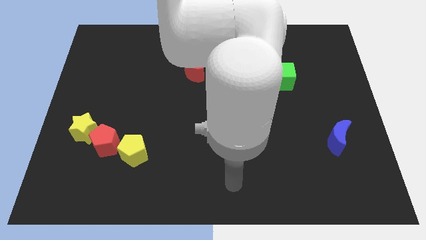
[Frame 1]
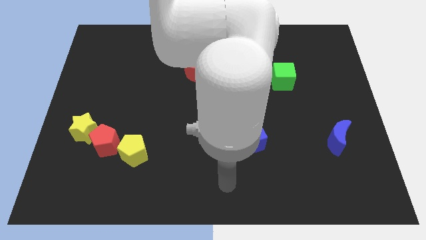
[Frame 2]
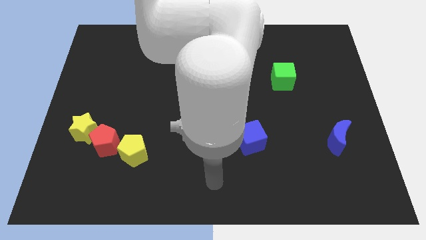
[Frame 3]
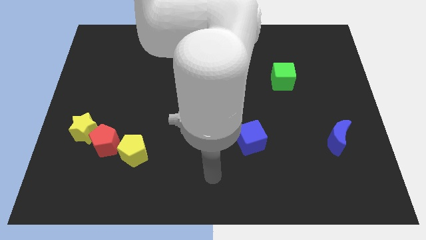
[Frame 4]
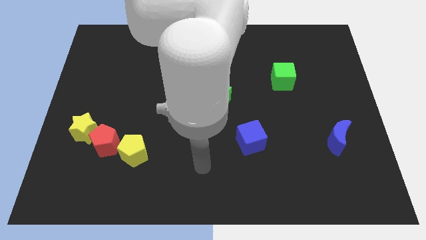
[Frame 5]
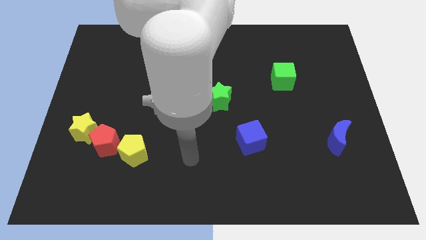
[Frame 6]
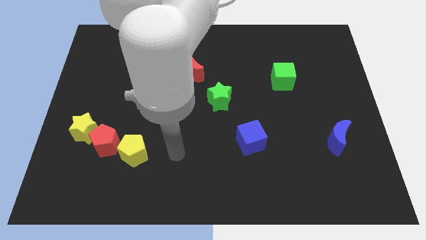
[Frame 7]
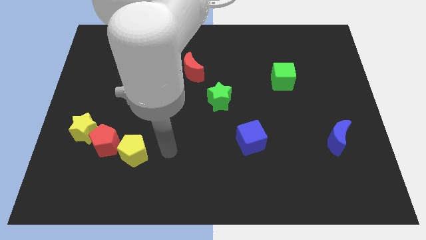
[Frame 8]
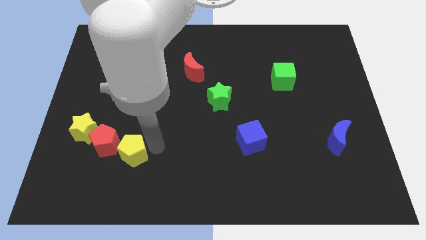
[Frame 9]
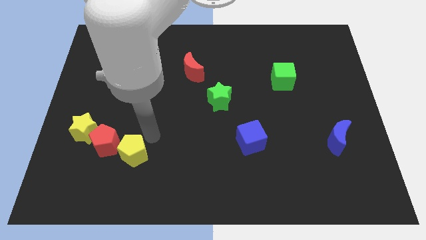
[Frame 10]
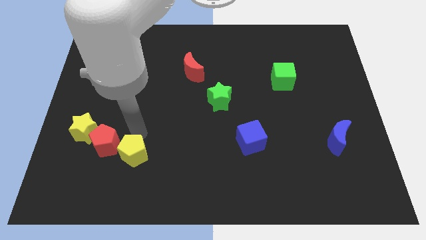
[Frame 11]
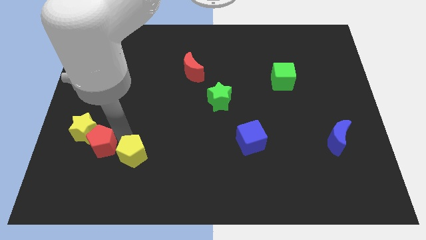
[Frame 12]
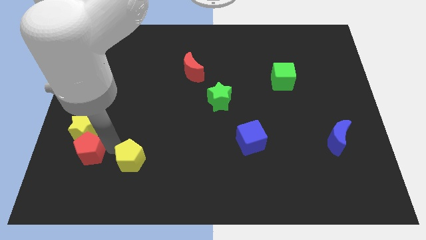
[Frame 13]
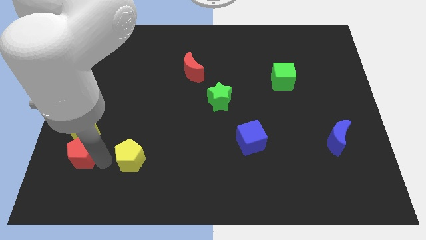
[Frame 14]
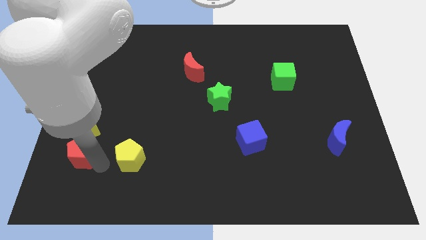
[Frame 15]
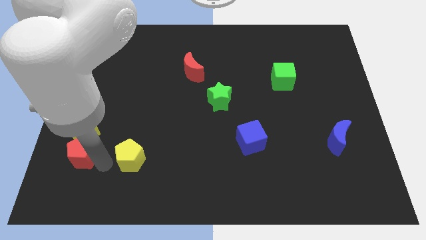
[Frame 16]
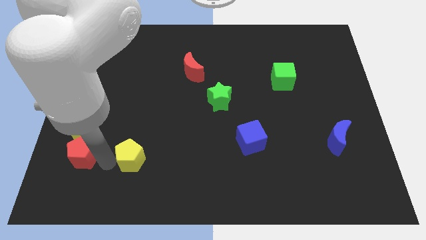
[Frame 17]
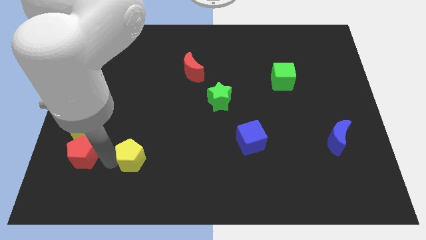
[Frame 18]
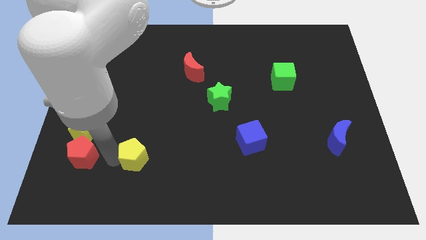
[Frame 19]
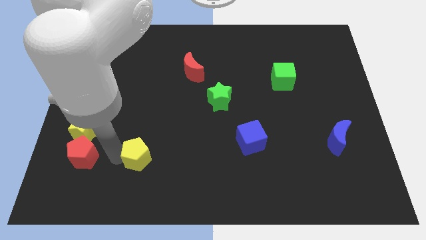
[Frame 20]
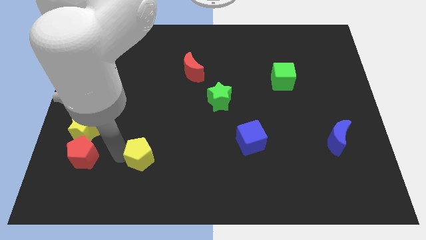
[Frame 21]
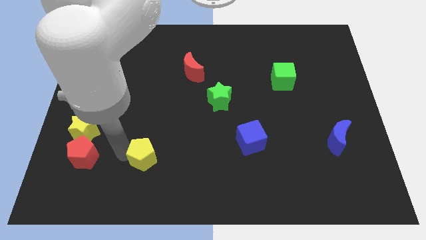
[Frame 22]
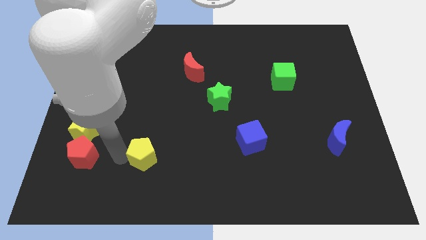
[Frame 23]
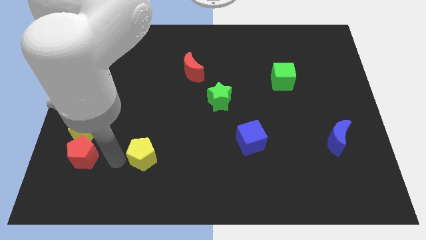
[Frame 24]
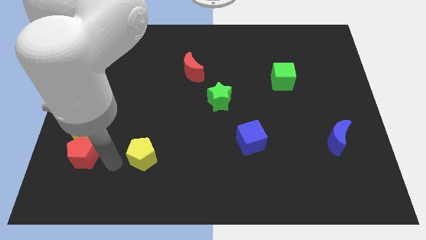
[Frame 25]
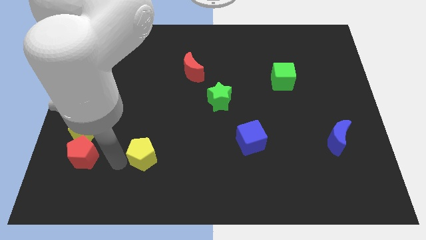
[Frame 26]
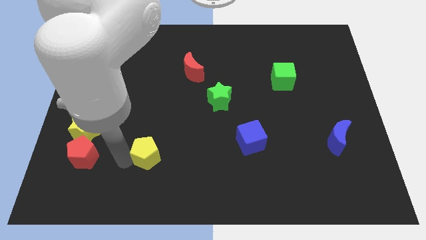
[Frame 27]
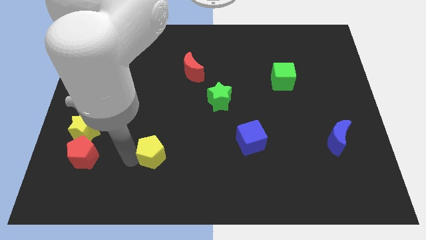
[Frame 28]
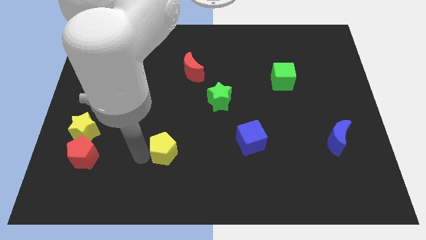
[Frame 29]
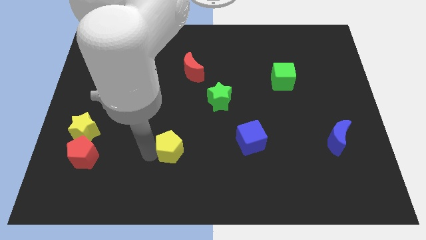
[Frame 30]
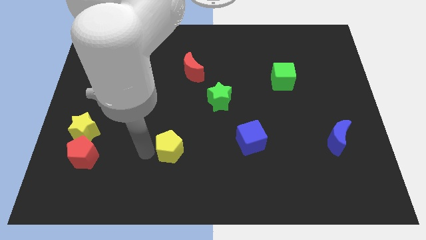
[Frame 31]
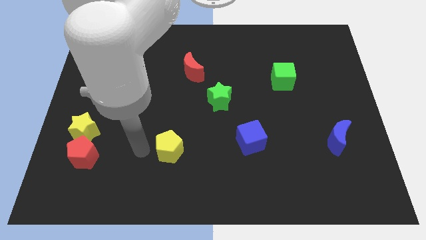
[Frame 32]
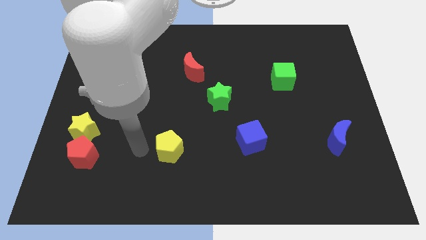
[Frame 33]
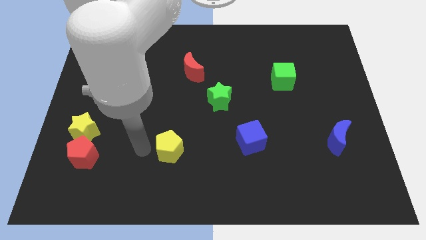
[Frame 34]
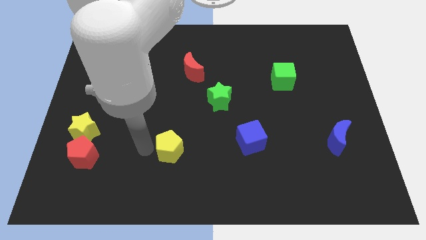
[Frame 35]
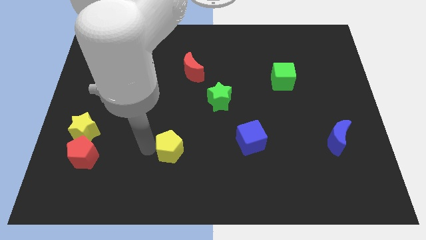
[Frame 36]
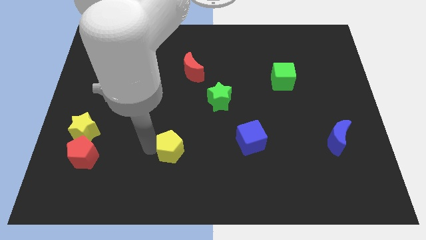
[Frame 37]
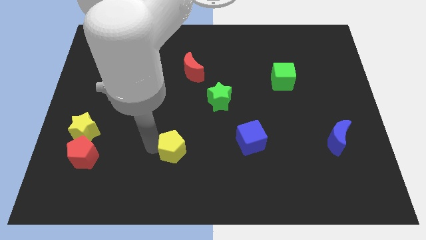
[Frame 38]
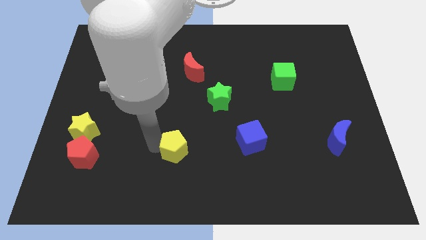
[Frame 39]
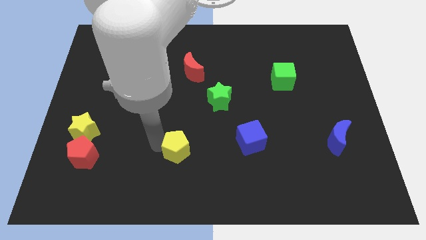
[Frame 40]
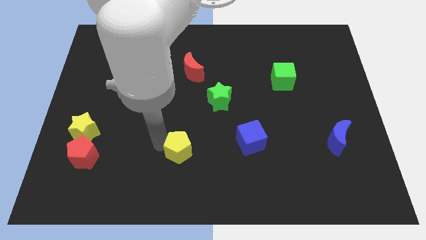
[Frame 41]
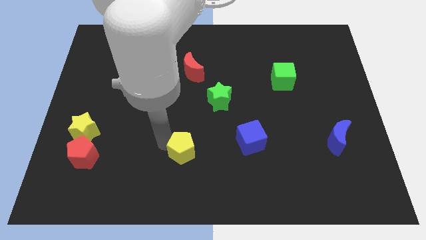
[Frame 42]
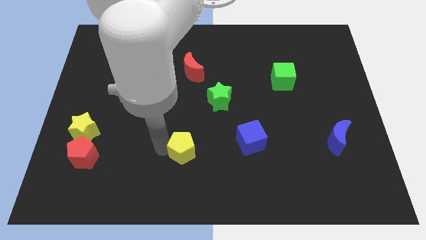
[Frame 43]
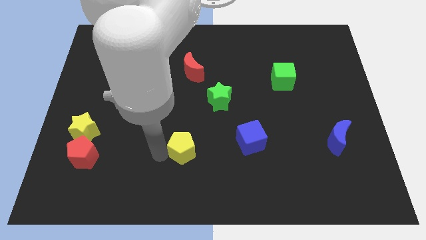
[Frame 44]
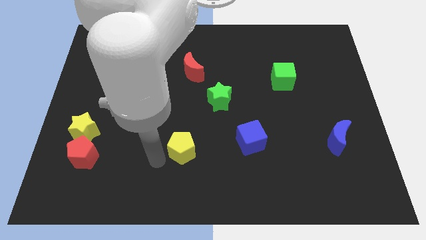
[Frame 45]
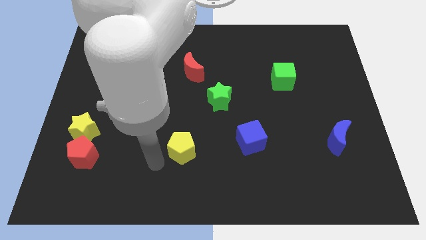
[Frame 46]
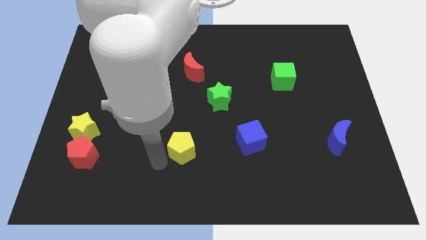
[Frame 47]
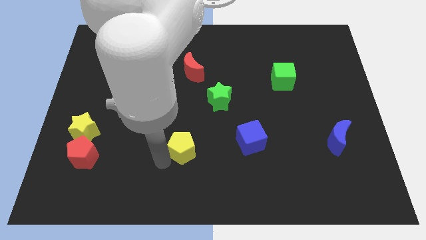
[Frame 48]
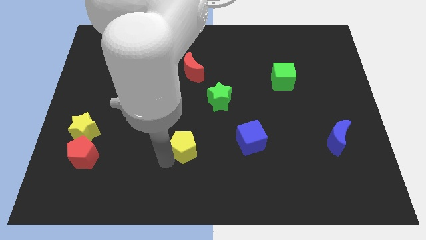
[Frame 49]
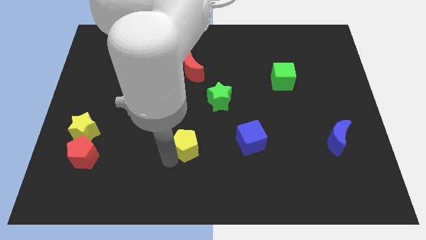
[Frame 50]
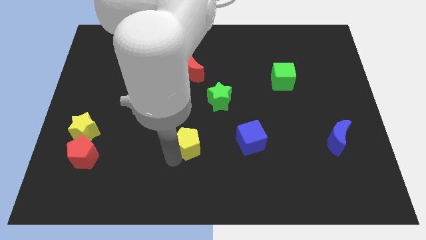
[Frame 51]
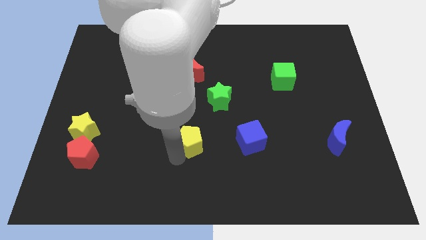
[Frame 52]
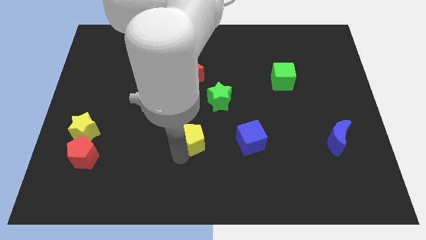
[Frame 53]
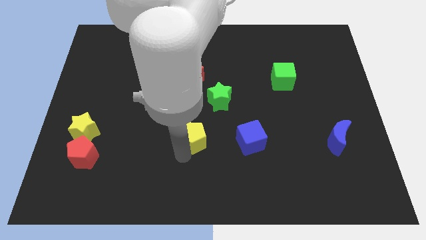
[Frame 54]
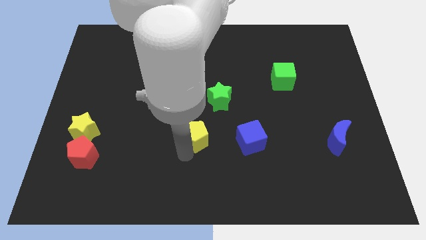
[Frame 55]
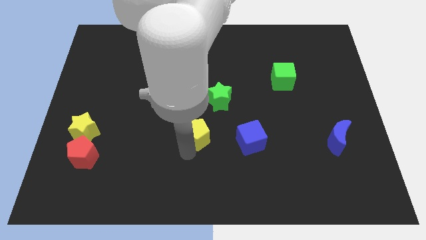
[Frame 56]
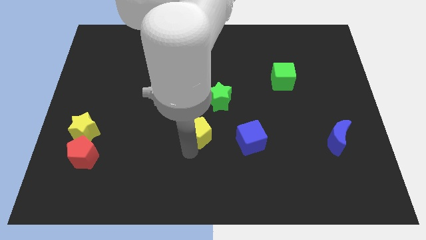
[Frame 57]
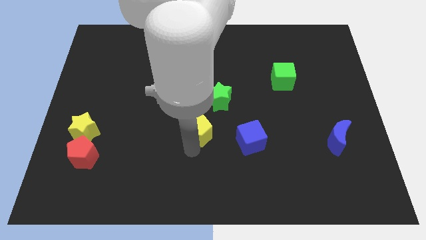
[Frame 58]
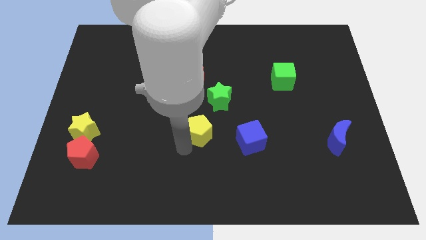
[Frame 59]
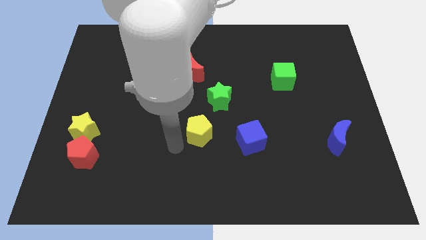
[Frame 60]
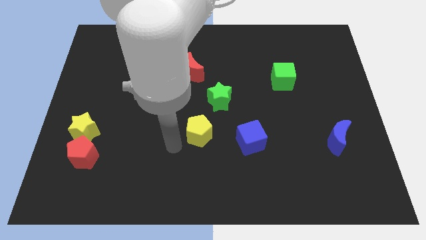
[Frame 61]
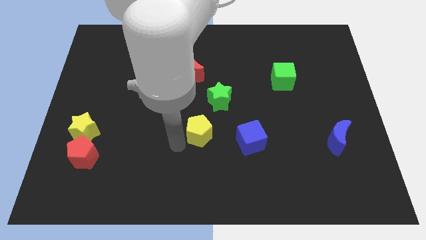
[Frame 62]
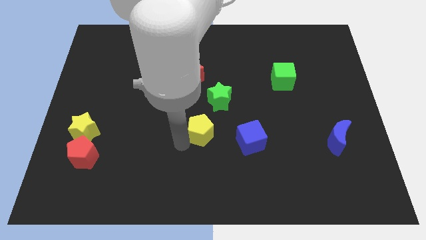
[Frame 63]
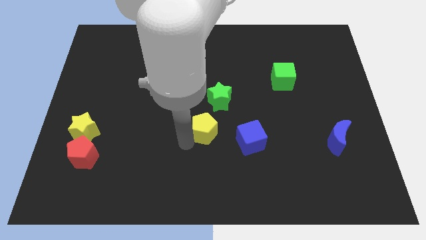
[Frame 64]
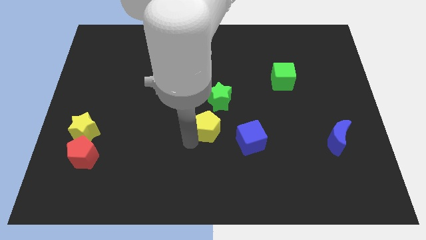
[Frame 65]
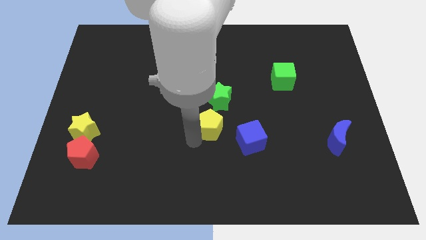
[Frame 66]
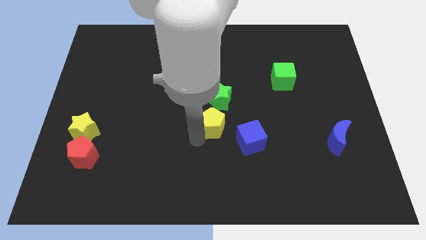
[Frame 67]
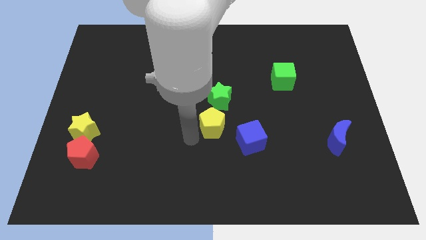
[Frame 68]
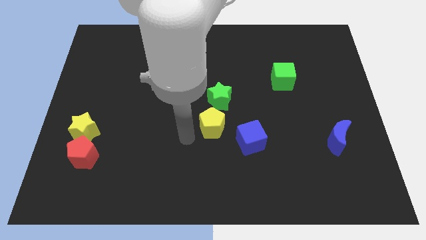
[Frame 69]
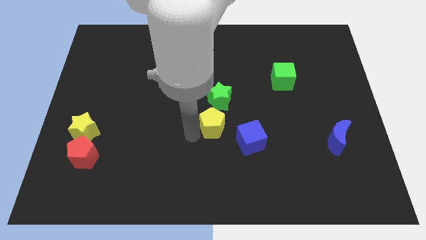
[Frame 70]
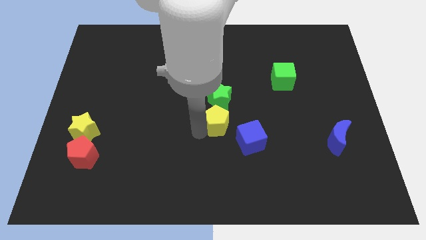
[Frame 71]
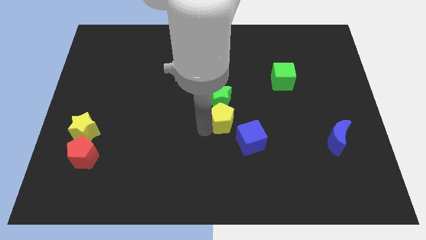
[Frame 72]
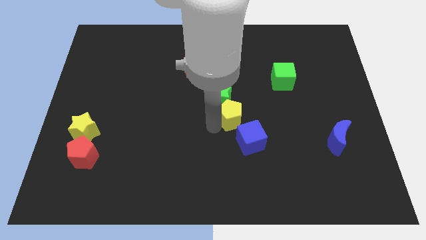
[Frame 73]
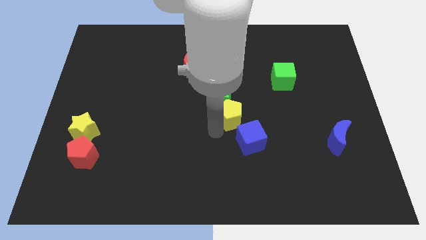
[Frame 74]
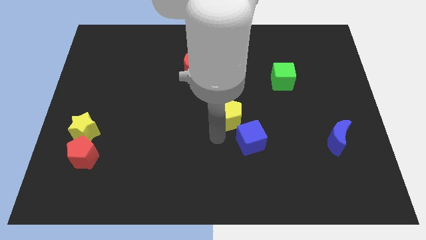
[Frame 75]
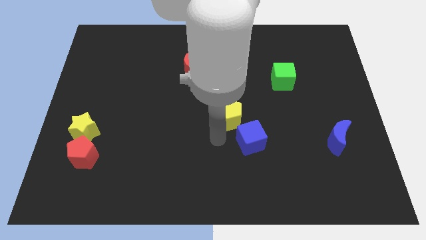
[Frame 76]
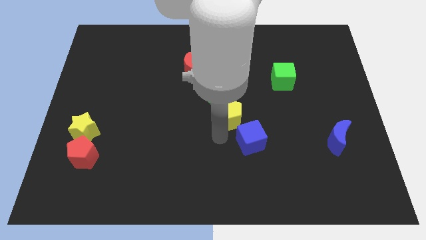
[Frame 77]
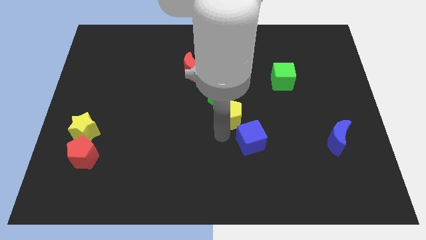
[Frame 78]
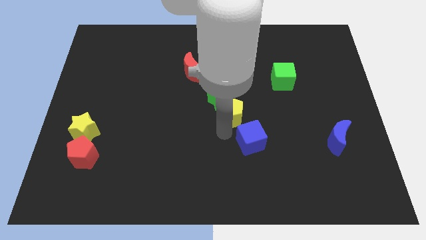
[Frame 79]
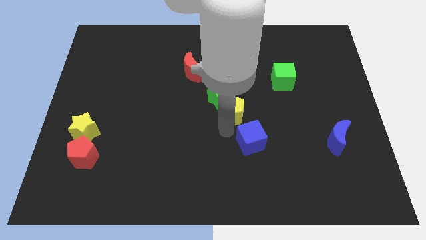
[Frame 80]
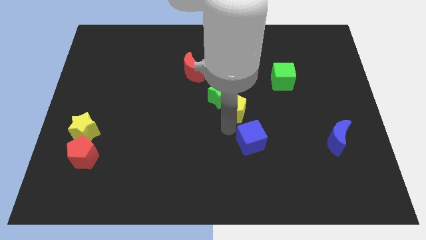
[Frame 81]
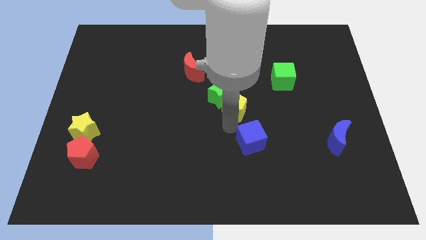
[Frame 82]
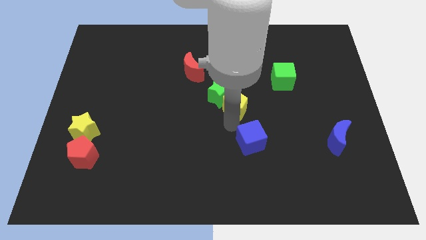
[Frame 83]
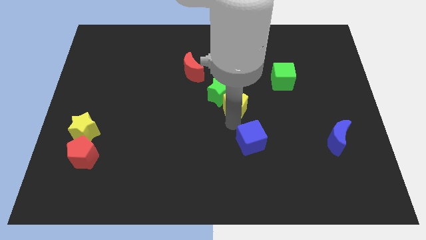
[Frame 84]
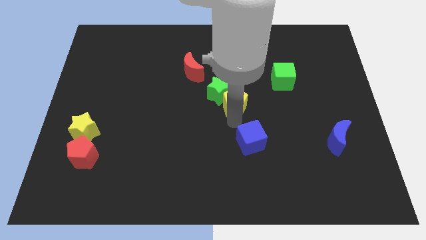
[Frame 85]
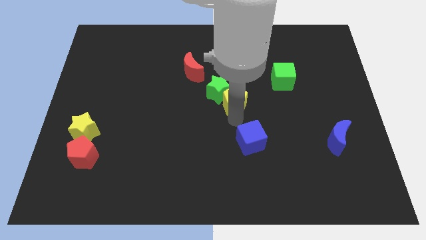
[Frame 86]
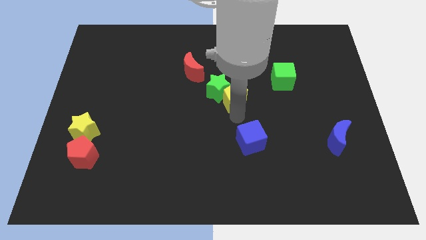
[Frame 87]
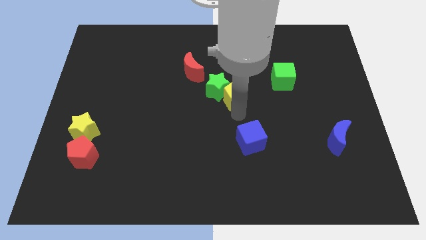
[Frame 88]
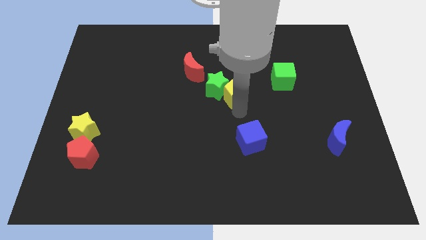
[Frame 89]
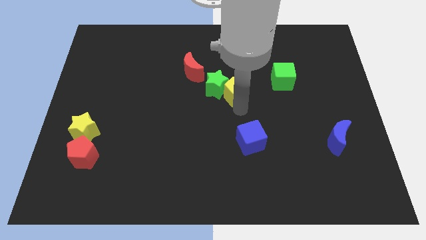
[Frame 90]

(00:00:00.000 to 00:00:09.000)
put the yellow pentagon left of the green cube
